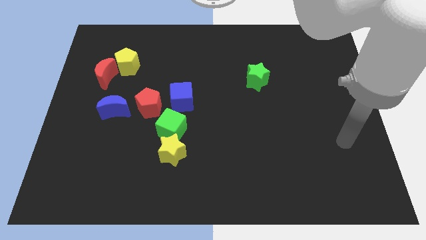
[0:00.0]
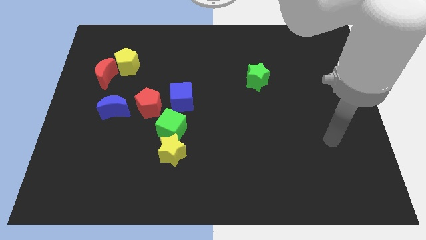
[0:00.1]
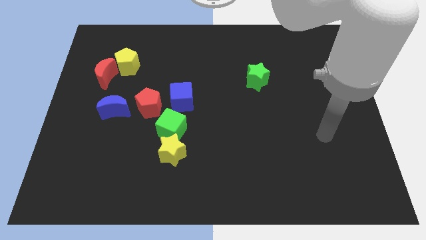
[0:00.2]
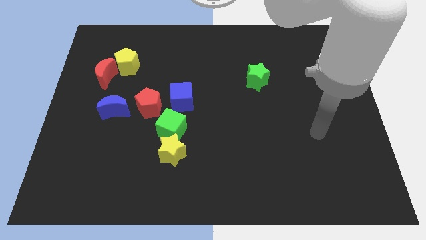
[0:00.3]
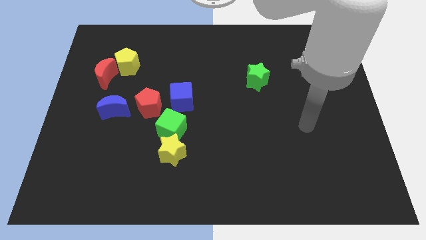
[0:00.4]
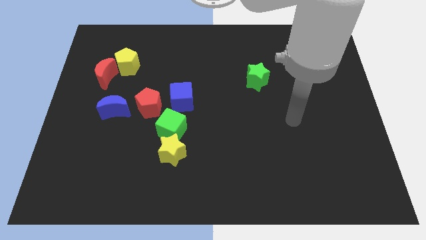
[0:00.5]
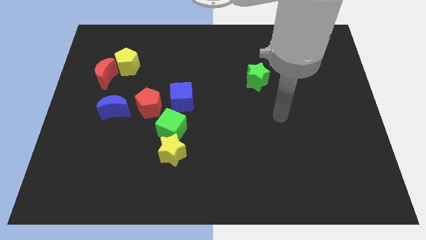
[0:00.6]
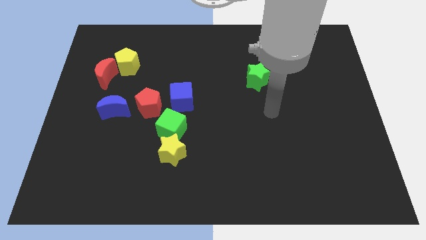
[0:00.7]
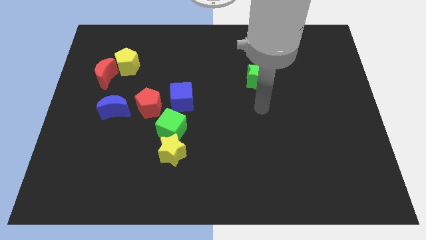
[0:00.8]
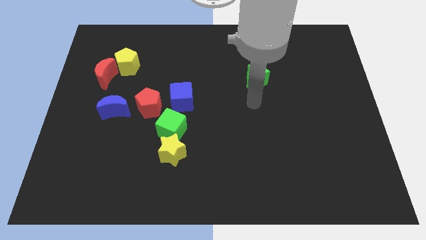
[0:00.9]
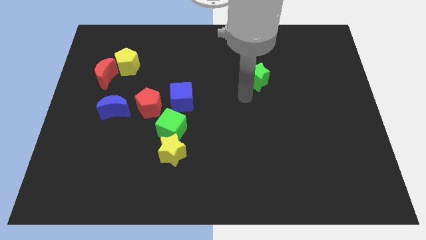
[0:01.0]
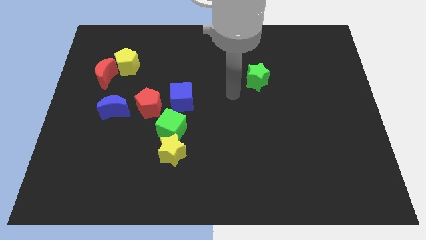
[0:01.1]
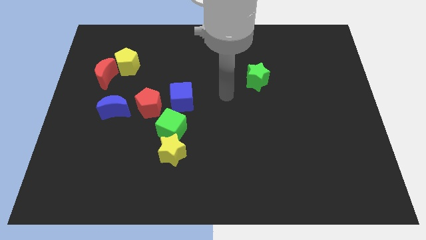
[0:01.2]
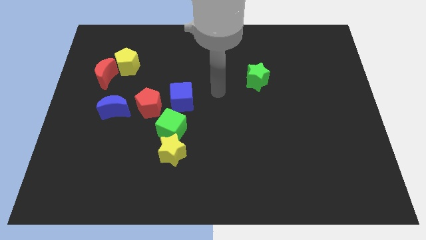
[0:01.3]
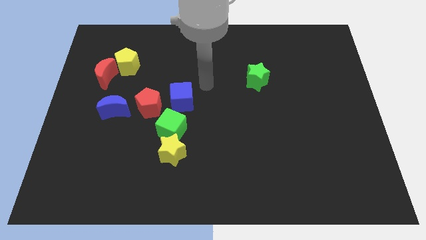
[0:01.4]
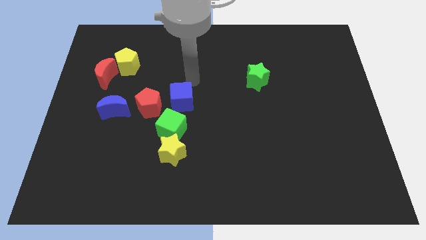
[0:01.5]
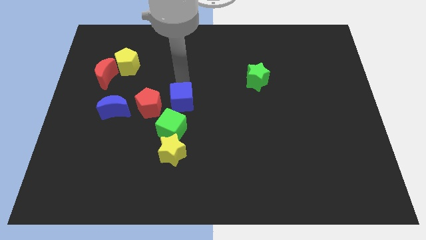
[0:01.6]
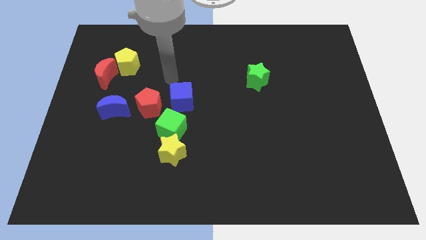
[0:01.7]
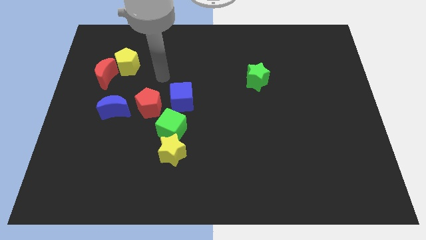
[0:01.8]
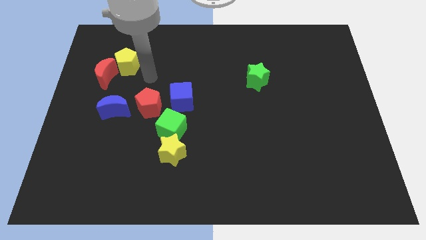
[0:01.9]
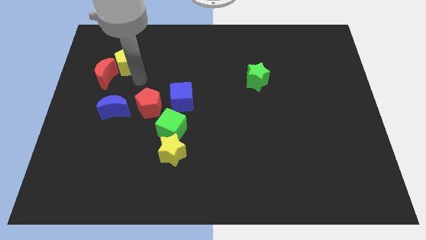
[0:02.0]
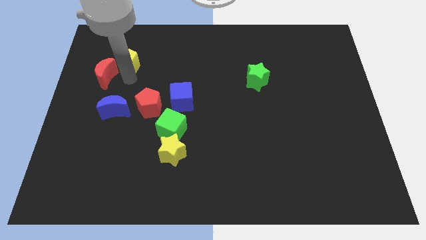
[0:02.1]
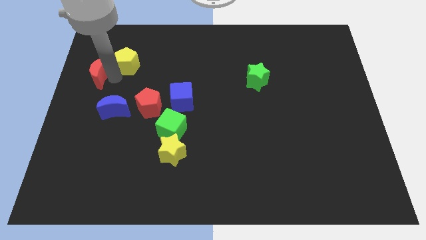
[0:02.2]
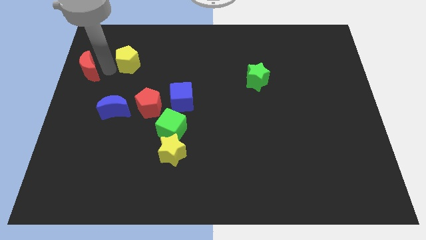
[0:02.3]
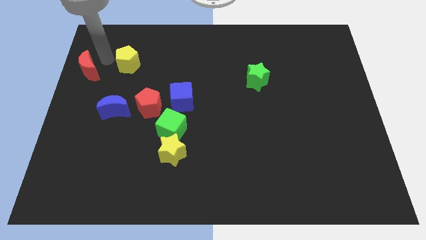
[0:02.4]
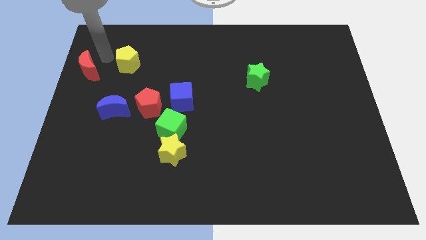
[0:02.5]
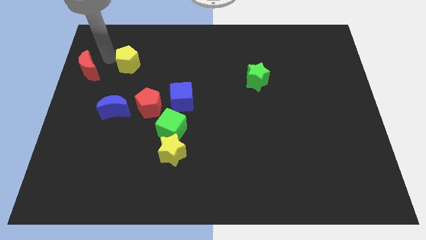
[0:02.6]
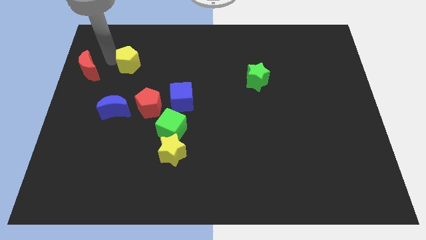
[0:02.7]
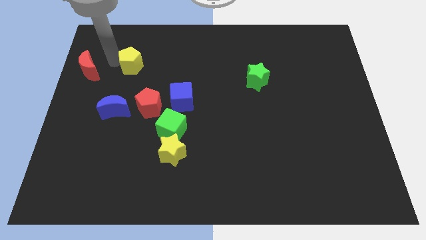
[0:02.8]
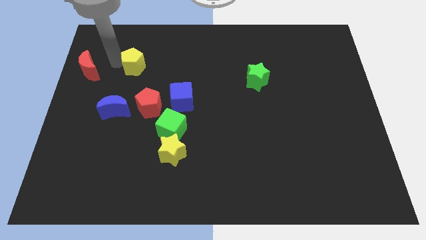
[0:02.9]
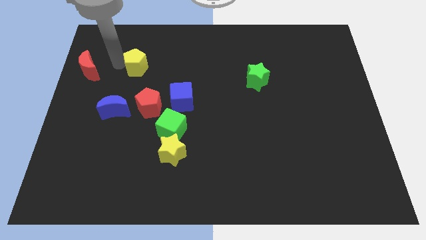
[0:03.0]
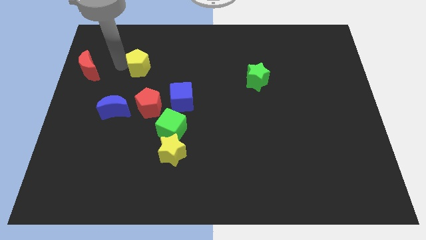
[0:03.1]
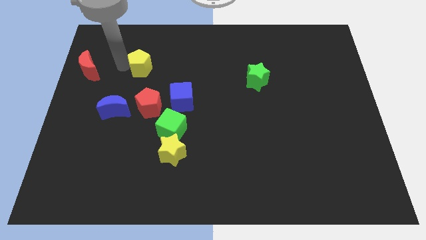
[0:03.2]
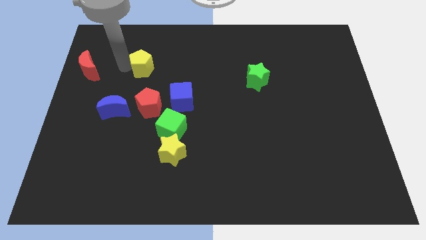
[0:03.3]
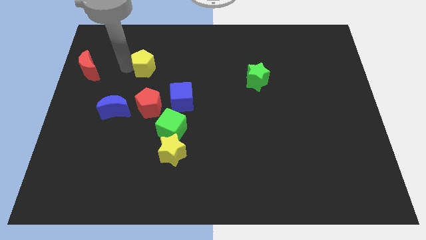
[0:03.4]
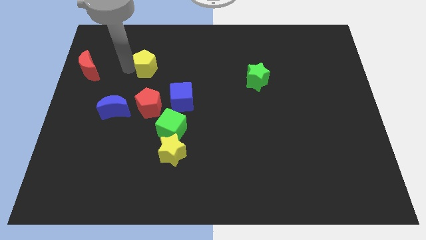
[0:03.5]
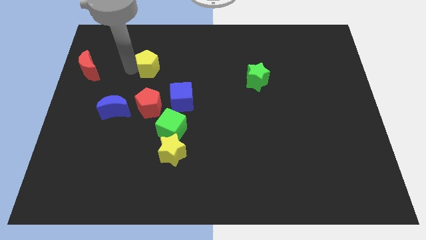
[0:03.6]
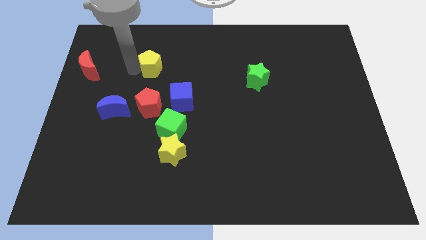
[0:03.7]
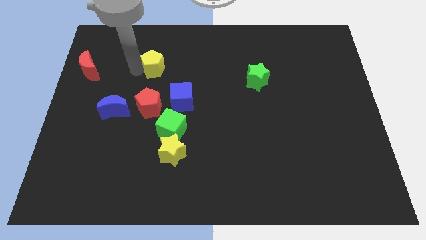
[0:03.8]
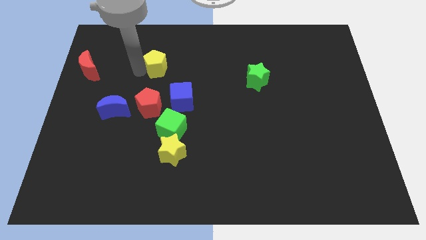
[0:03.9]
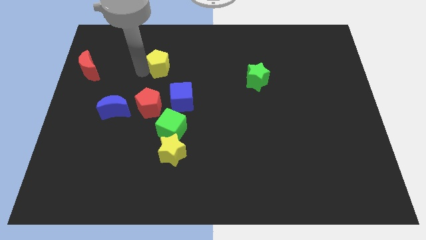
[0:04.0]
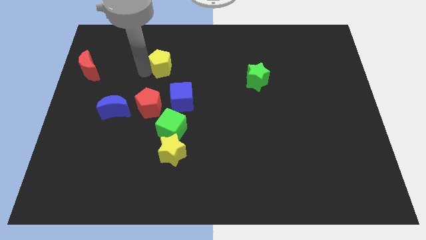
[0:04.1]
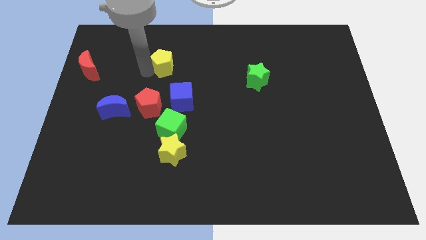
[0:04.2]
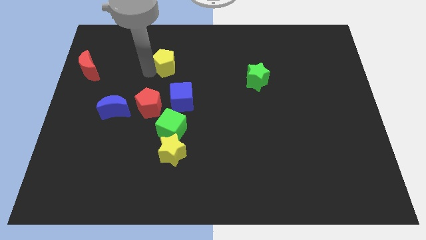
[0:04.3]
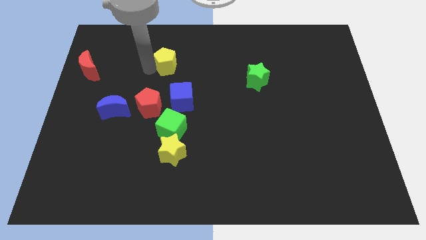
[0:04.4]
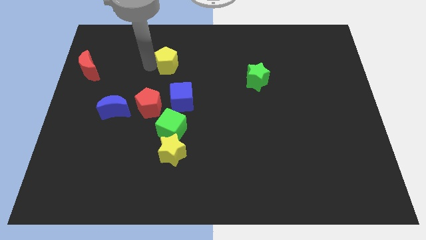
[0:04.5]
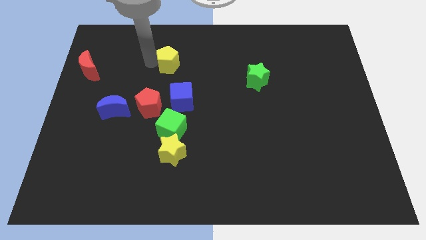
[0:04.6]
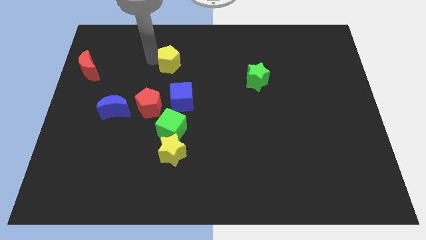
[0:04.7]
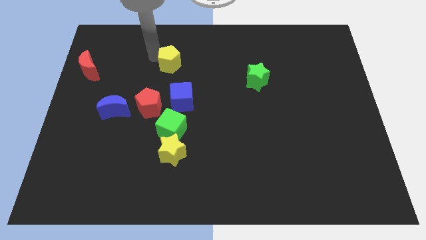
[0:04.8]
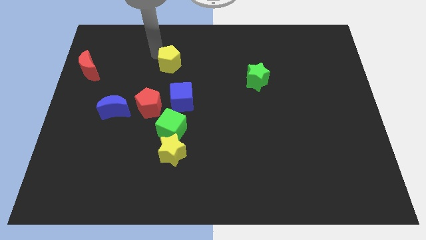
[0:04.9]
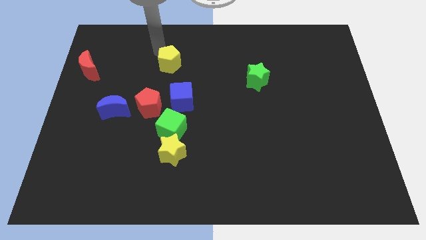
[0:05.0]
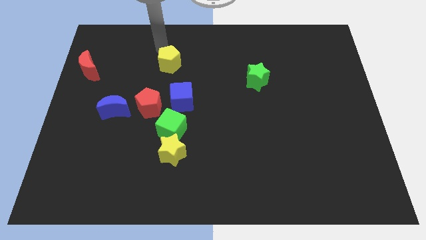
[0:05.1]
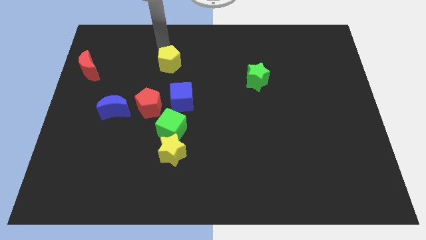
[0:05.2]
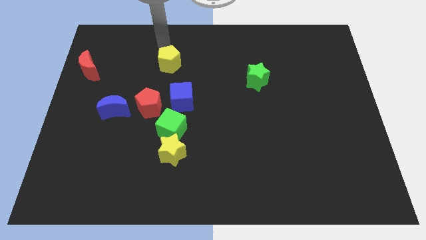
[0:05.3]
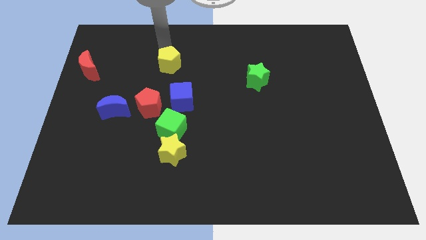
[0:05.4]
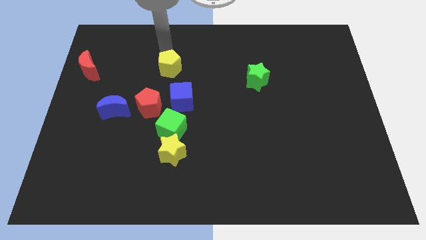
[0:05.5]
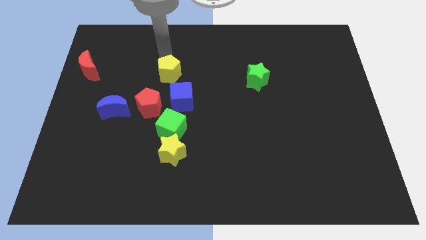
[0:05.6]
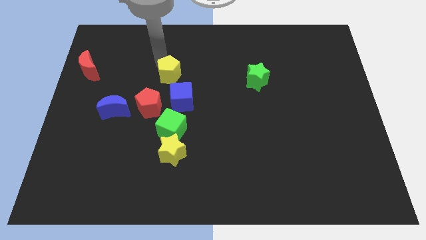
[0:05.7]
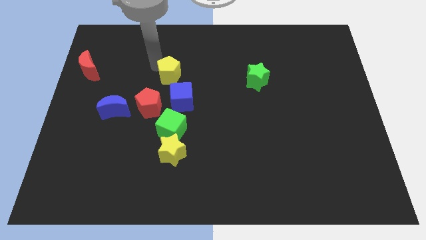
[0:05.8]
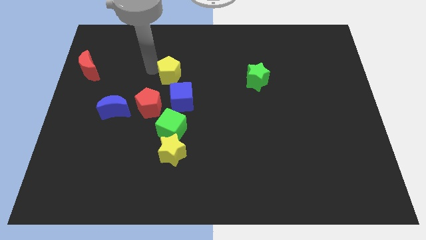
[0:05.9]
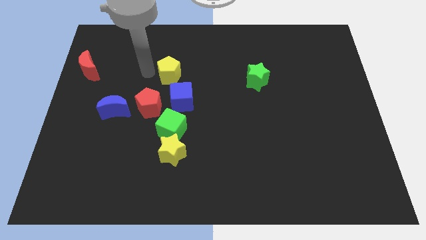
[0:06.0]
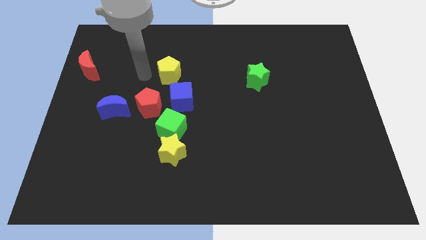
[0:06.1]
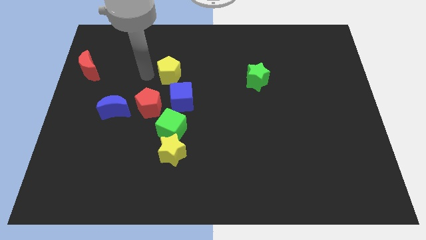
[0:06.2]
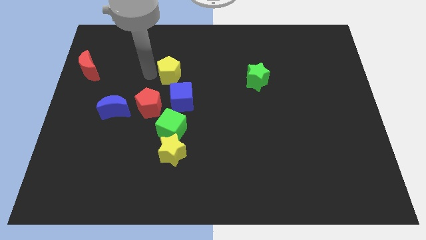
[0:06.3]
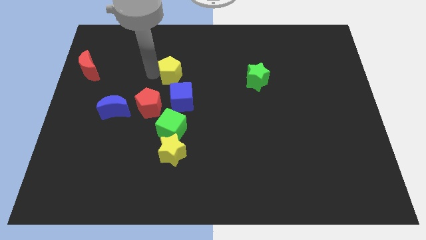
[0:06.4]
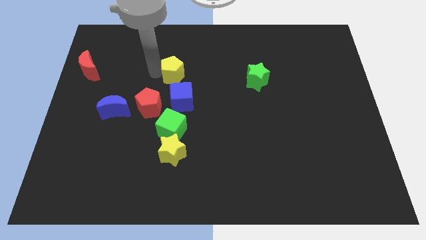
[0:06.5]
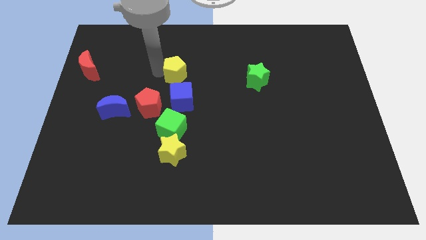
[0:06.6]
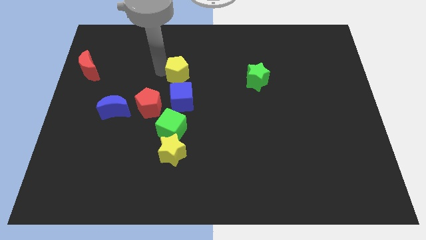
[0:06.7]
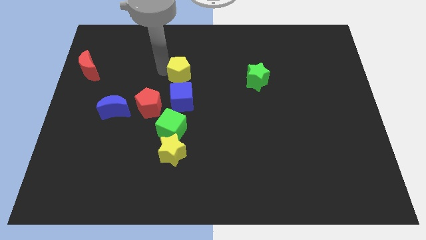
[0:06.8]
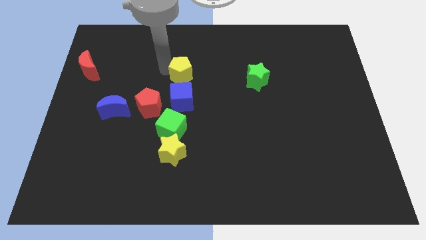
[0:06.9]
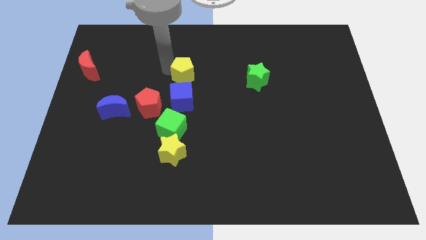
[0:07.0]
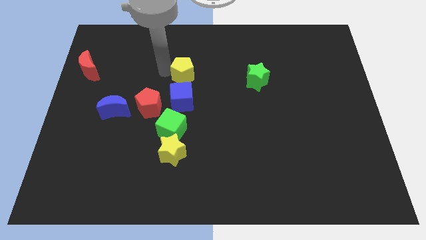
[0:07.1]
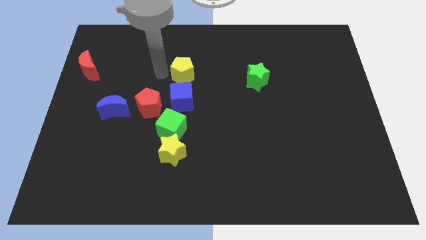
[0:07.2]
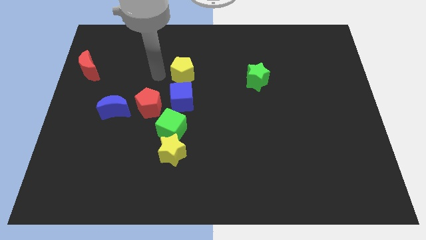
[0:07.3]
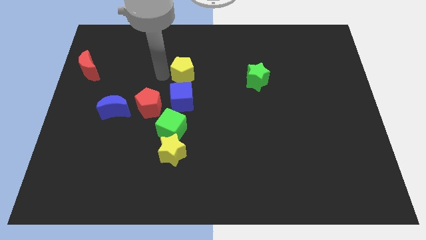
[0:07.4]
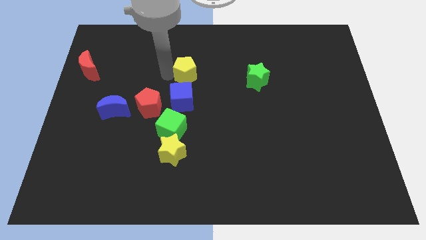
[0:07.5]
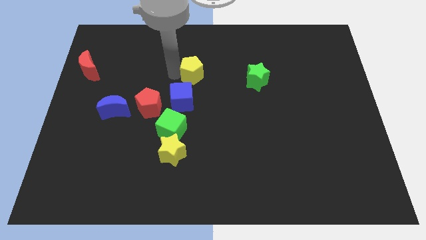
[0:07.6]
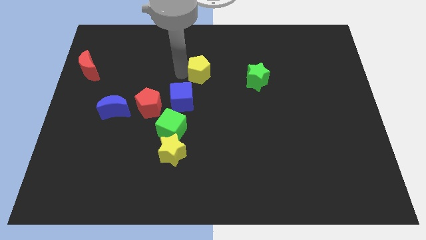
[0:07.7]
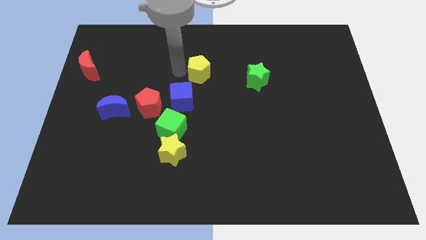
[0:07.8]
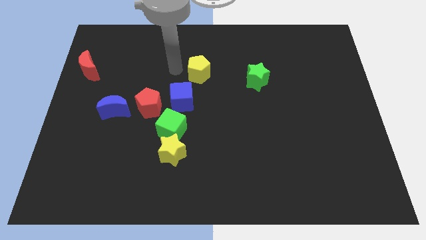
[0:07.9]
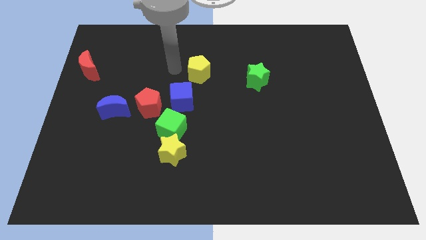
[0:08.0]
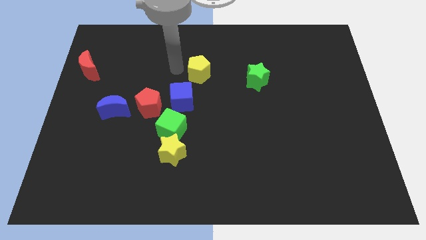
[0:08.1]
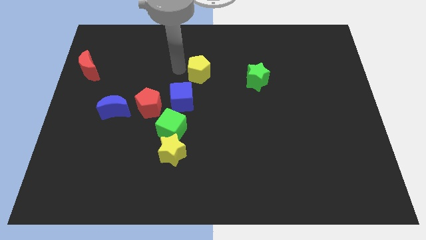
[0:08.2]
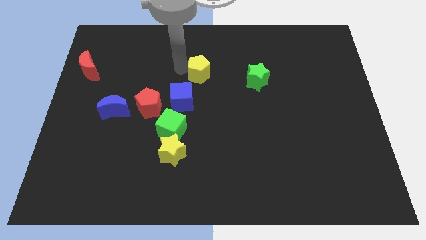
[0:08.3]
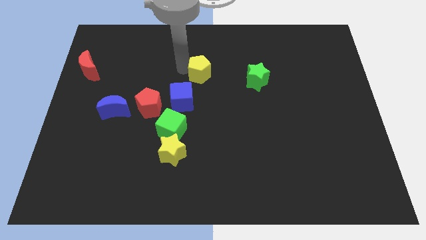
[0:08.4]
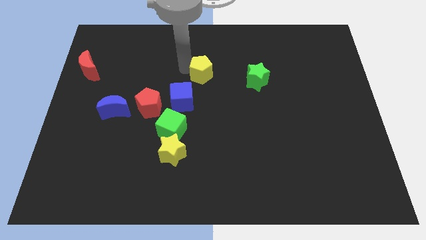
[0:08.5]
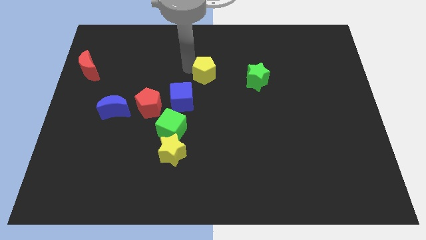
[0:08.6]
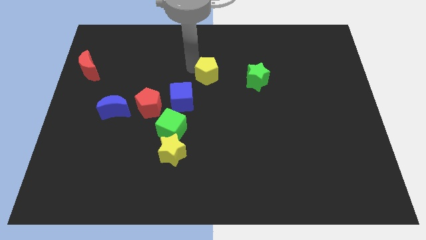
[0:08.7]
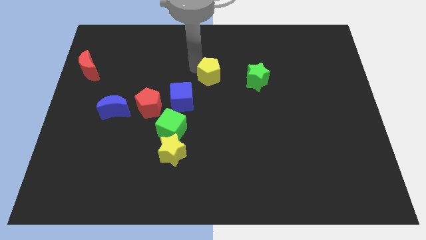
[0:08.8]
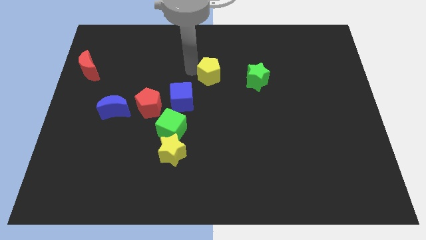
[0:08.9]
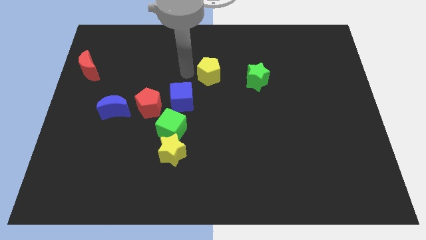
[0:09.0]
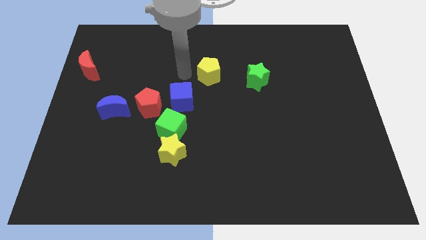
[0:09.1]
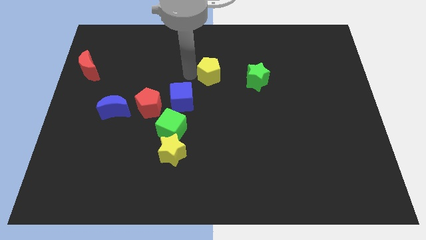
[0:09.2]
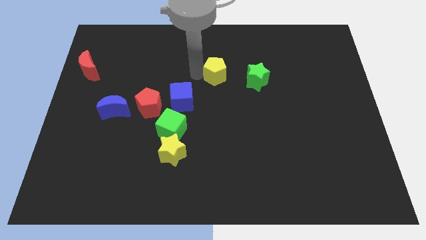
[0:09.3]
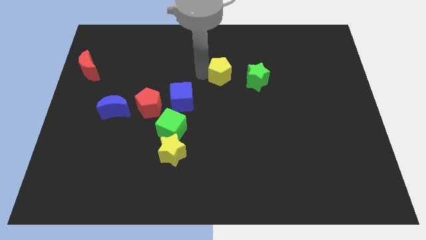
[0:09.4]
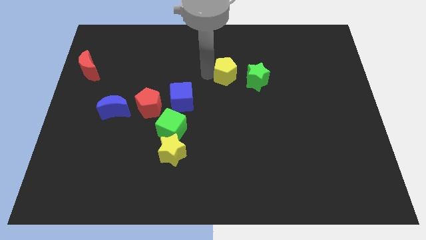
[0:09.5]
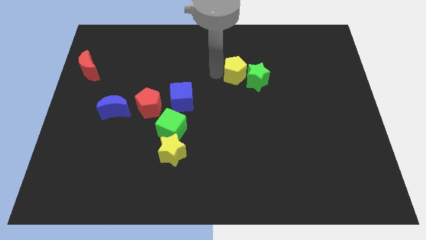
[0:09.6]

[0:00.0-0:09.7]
put the yellow pentagon next to the green star
